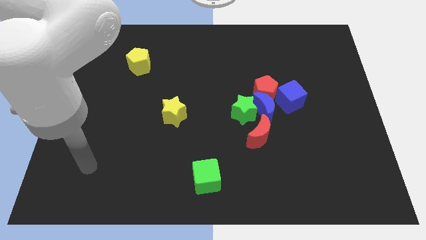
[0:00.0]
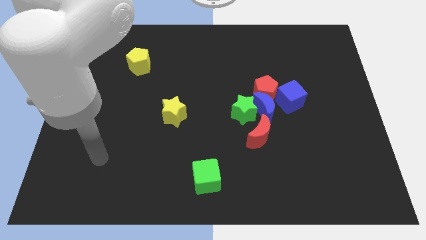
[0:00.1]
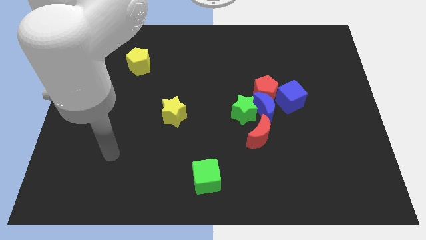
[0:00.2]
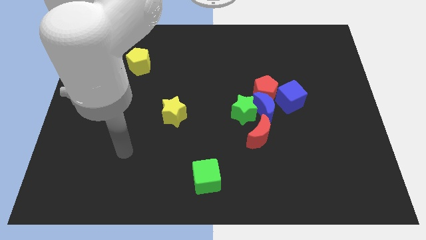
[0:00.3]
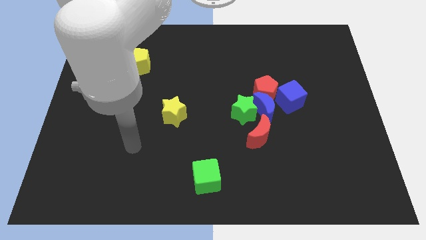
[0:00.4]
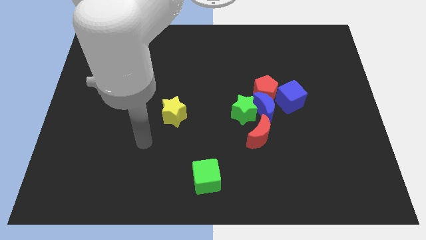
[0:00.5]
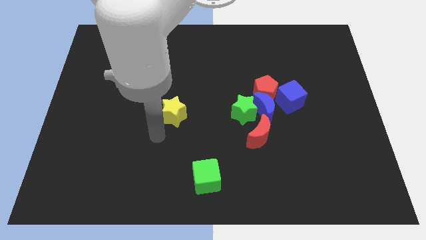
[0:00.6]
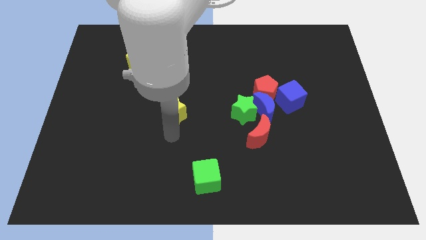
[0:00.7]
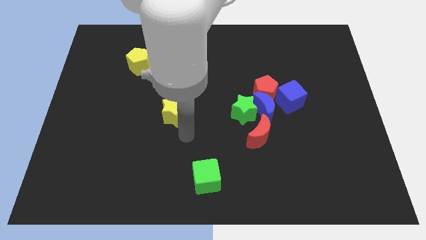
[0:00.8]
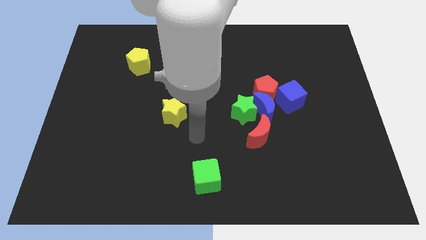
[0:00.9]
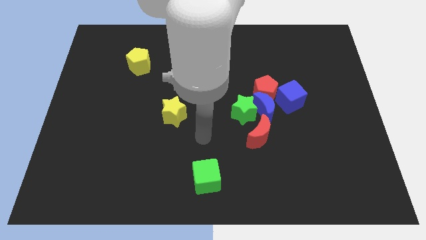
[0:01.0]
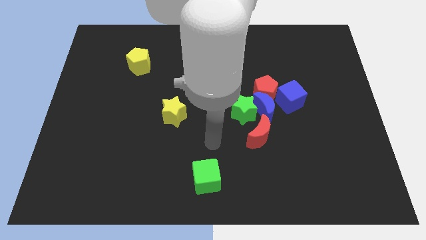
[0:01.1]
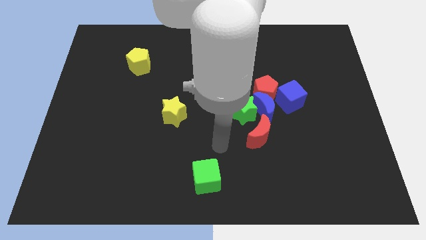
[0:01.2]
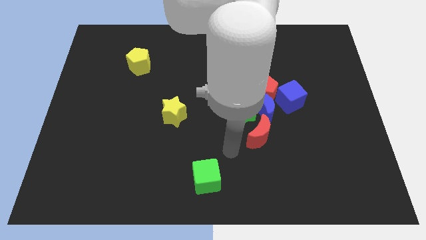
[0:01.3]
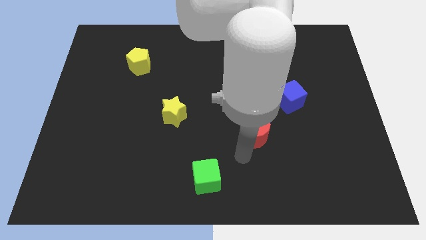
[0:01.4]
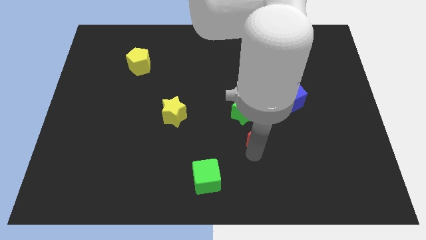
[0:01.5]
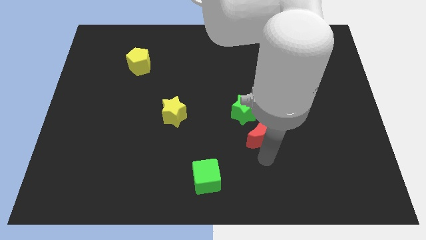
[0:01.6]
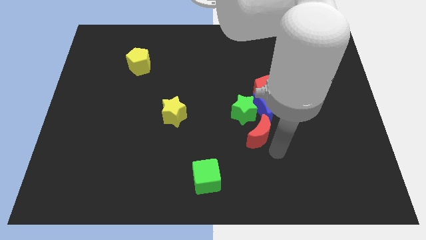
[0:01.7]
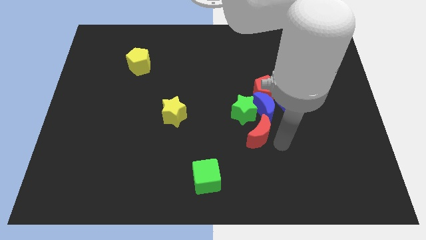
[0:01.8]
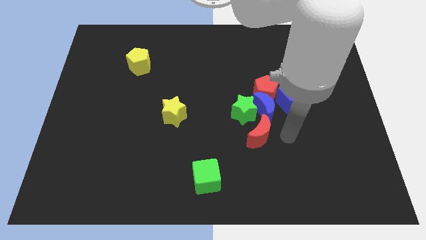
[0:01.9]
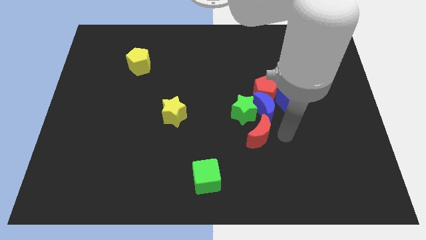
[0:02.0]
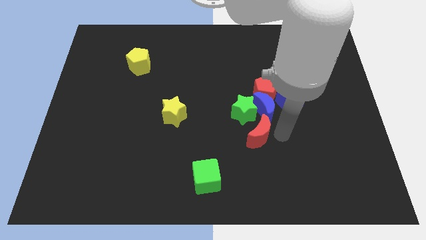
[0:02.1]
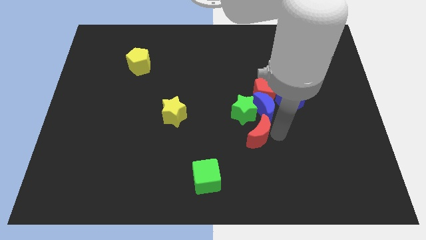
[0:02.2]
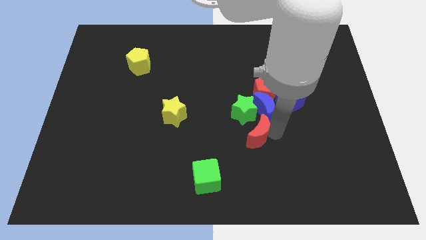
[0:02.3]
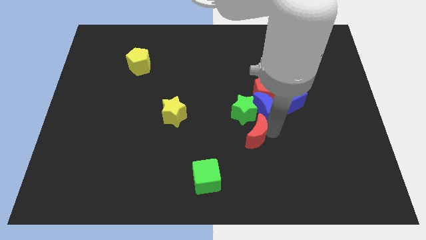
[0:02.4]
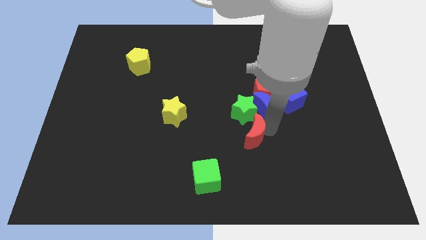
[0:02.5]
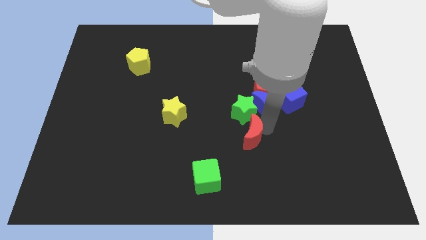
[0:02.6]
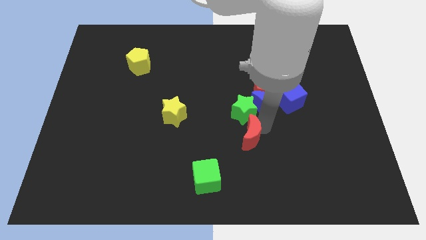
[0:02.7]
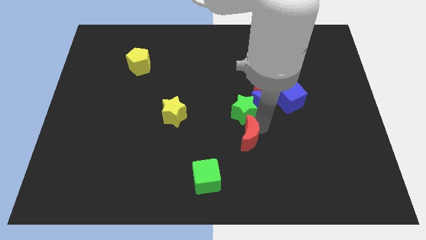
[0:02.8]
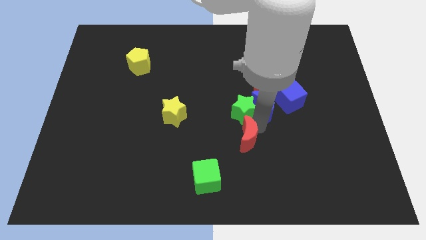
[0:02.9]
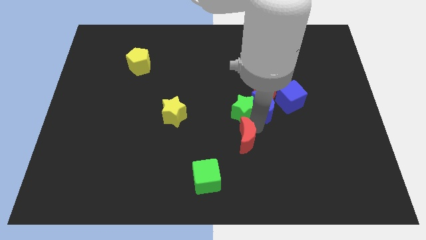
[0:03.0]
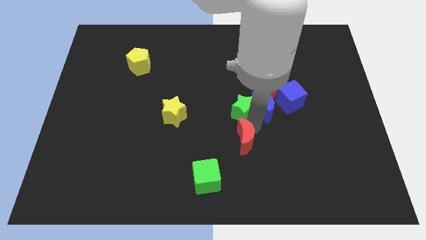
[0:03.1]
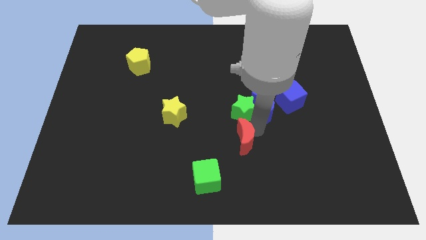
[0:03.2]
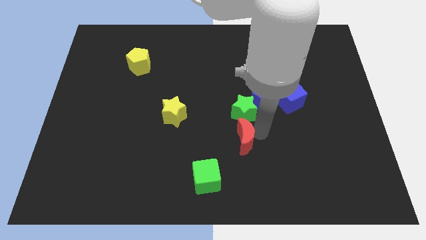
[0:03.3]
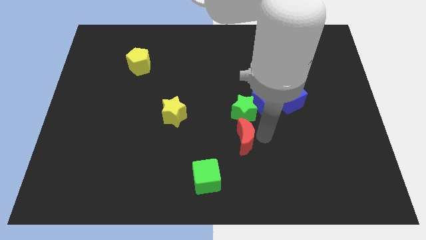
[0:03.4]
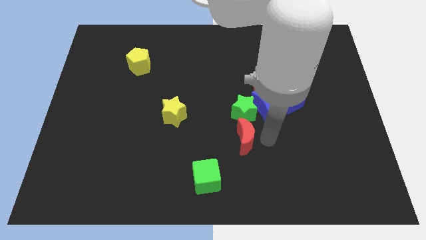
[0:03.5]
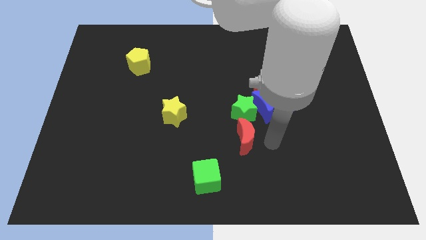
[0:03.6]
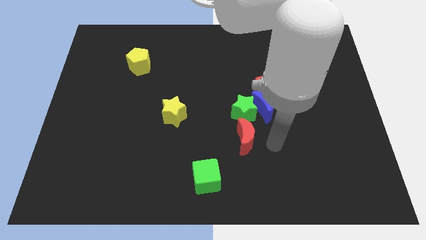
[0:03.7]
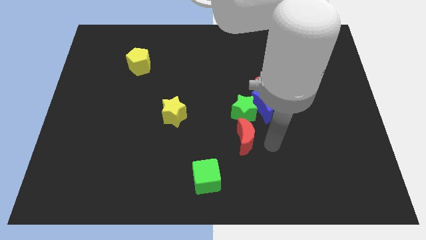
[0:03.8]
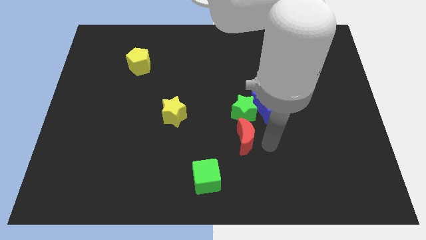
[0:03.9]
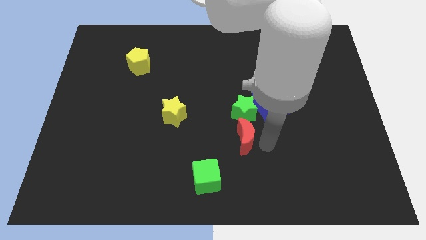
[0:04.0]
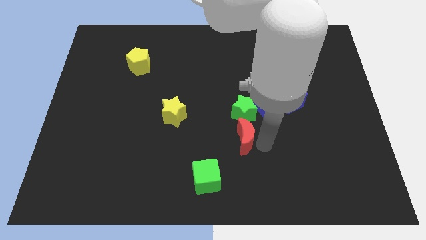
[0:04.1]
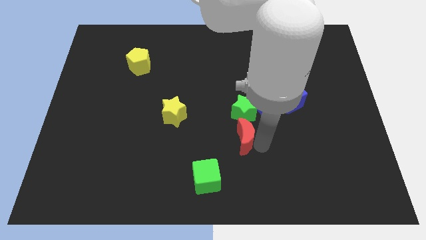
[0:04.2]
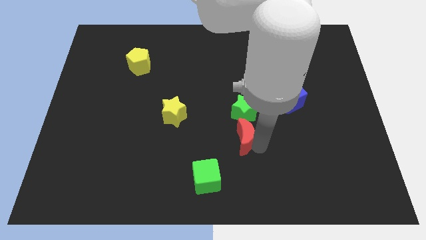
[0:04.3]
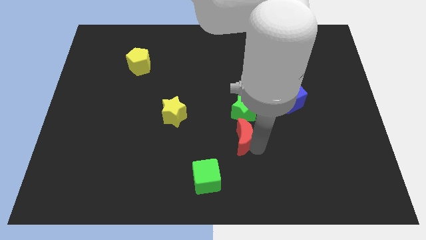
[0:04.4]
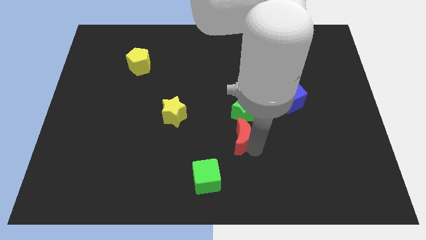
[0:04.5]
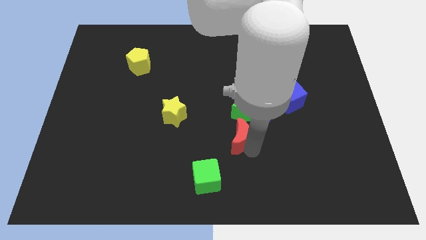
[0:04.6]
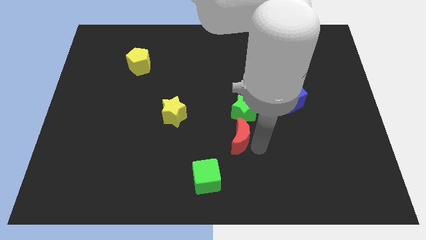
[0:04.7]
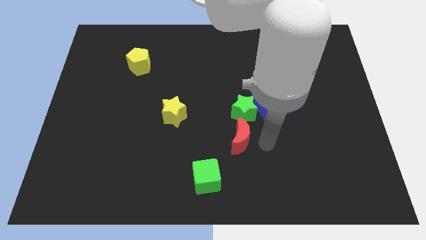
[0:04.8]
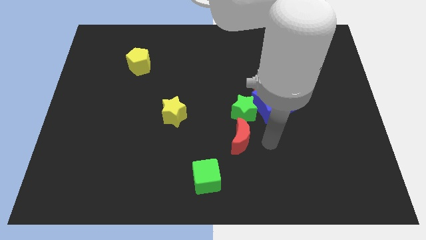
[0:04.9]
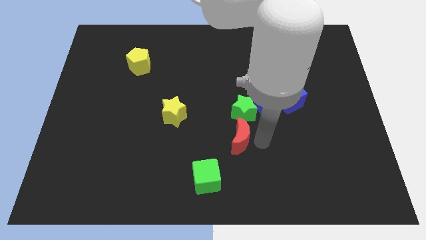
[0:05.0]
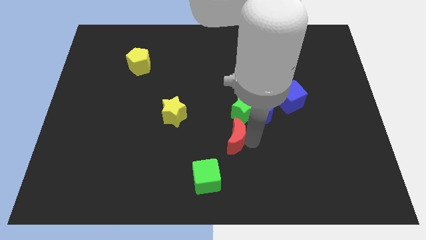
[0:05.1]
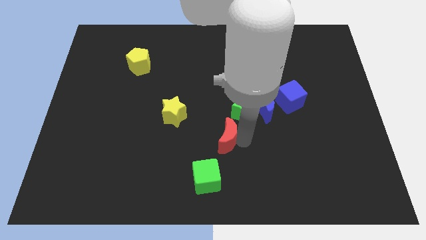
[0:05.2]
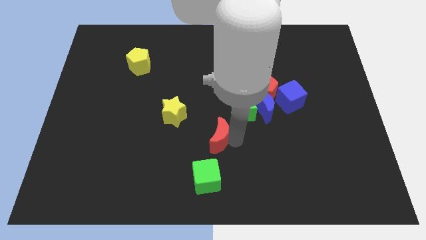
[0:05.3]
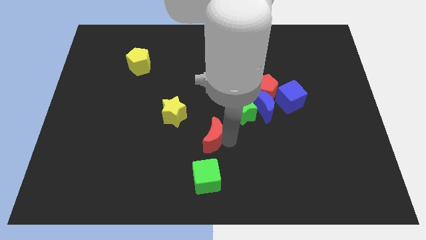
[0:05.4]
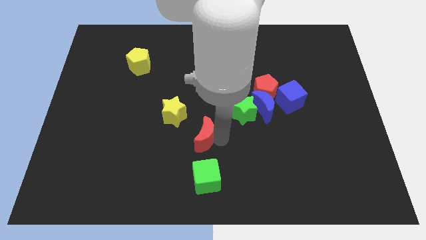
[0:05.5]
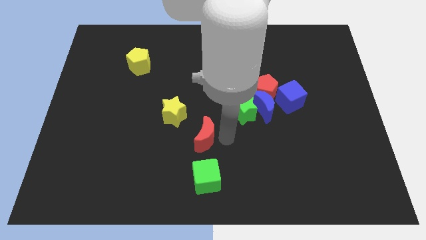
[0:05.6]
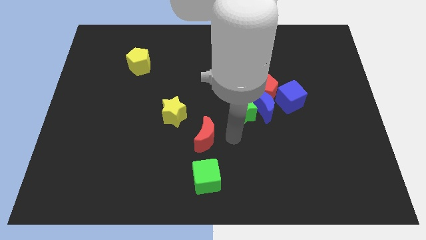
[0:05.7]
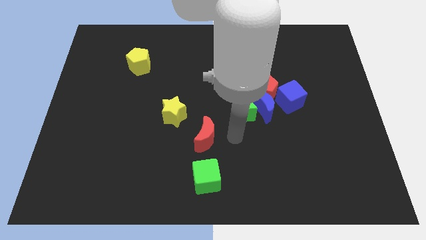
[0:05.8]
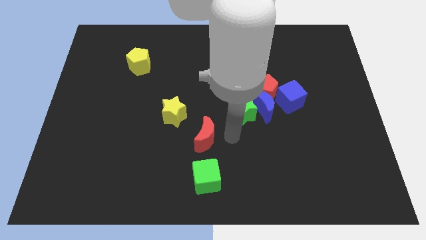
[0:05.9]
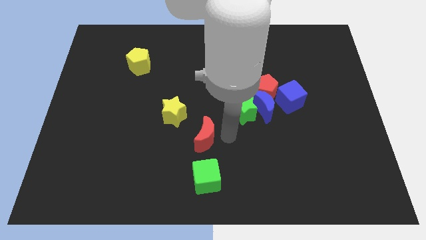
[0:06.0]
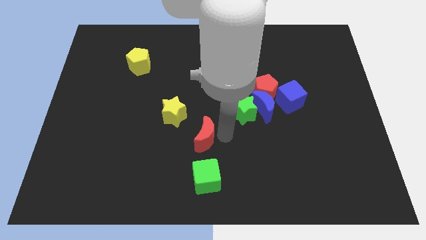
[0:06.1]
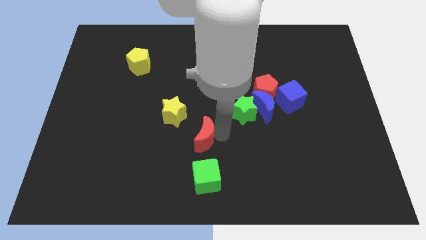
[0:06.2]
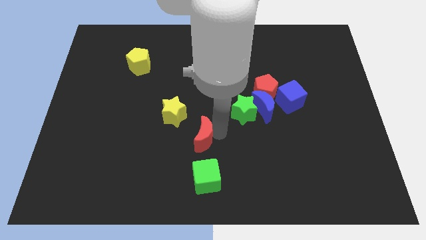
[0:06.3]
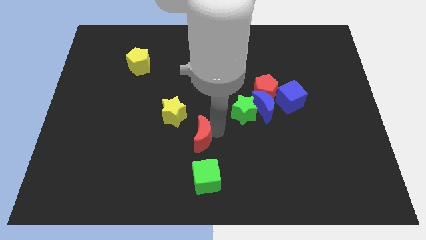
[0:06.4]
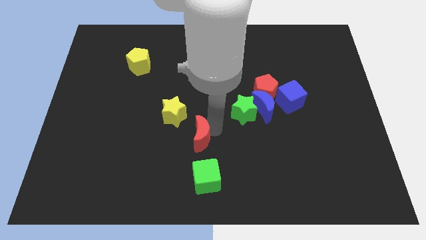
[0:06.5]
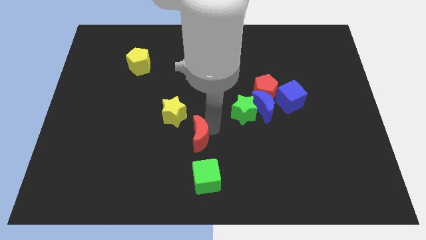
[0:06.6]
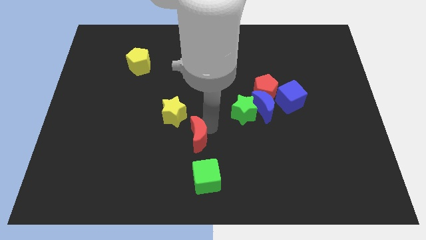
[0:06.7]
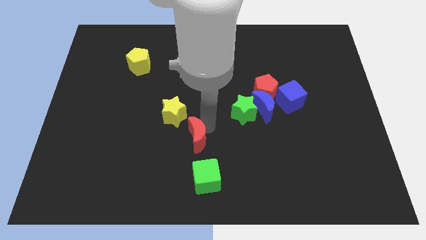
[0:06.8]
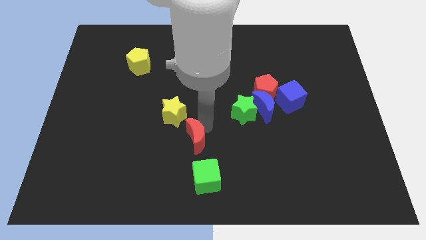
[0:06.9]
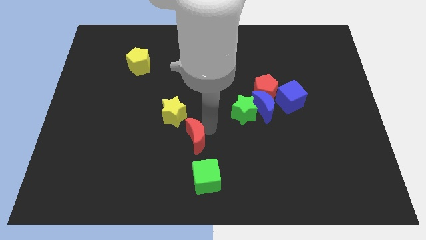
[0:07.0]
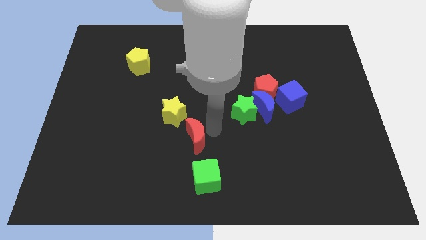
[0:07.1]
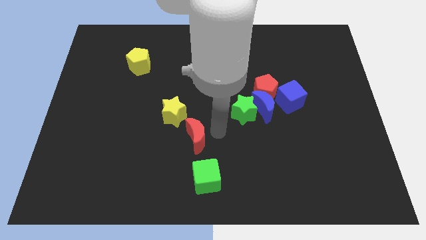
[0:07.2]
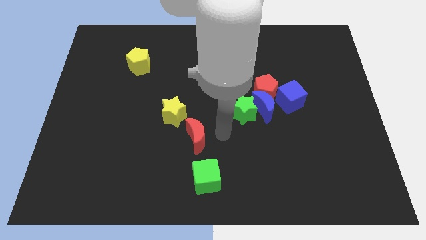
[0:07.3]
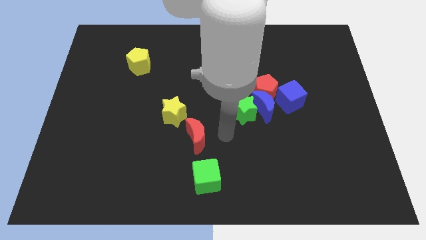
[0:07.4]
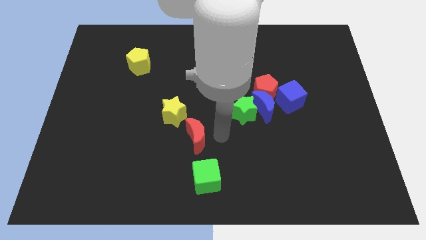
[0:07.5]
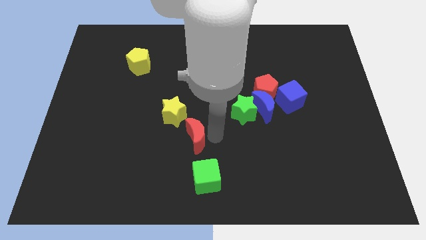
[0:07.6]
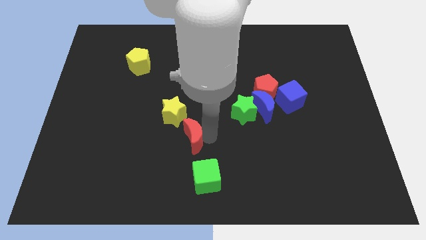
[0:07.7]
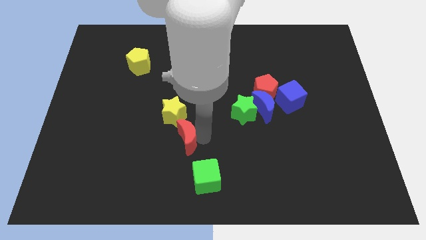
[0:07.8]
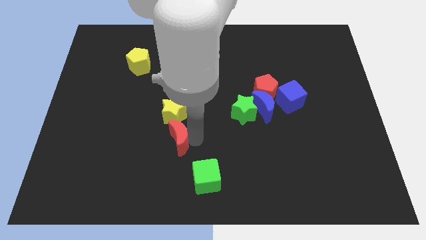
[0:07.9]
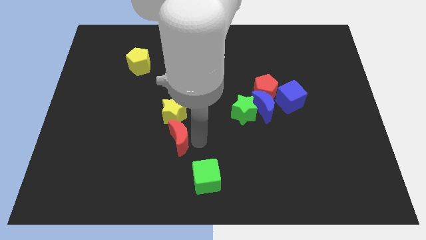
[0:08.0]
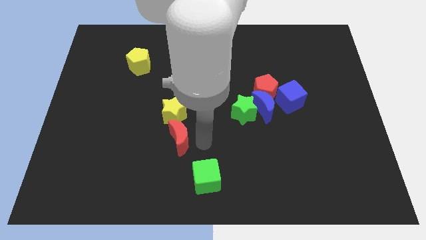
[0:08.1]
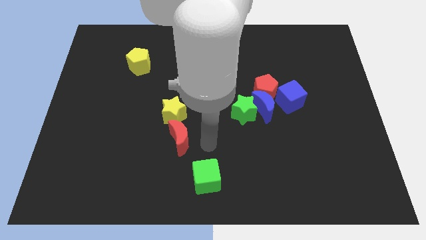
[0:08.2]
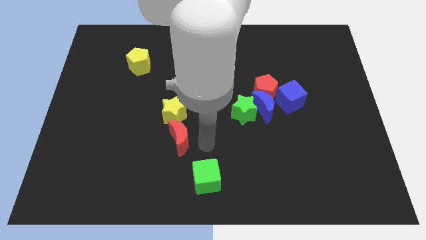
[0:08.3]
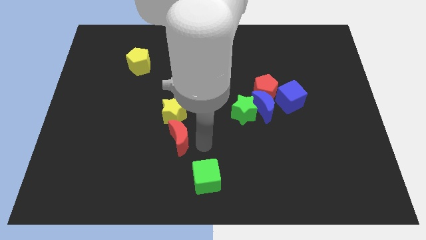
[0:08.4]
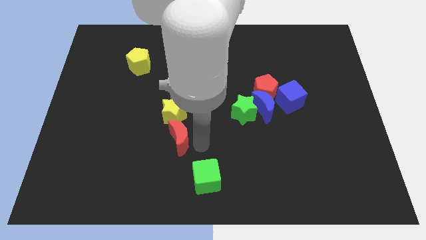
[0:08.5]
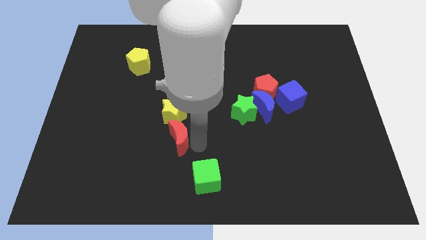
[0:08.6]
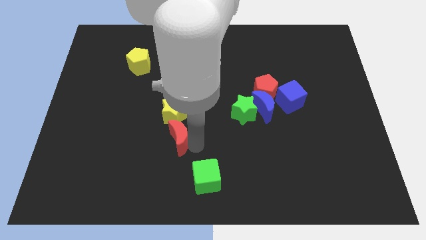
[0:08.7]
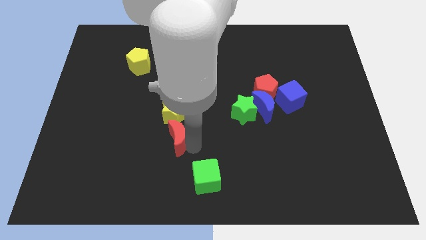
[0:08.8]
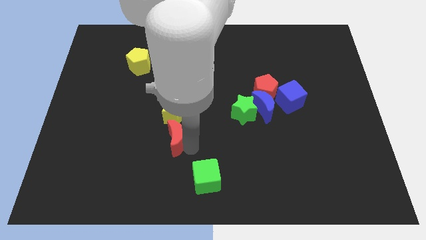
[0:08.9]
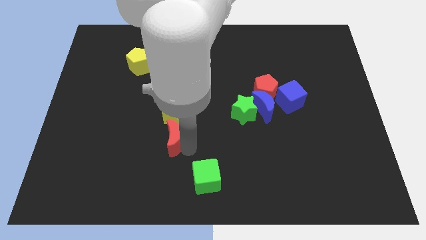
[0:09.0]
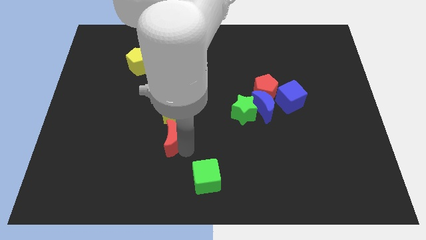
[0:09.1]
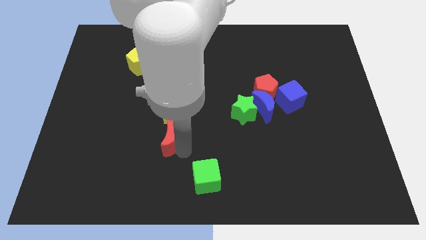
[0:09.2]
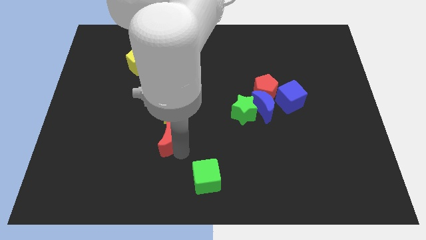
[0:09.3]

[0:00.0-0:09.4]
slide the red moon to the left
